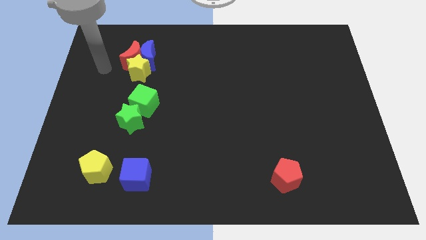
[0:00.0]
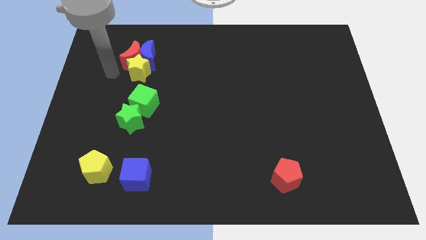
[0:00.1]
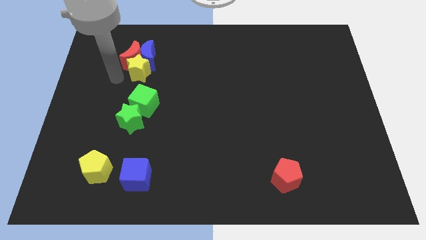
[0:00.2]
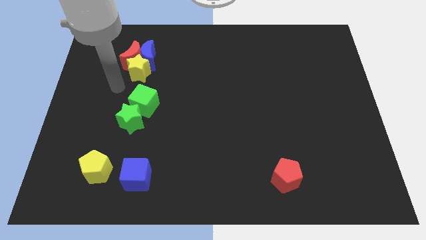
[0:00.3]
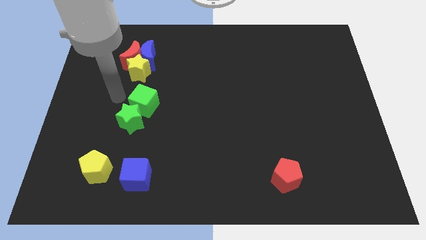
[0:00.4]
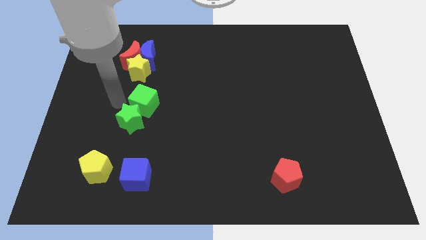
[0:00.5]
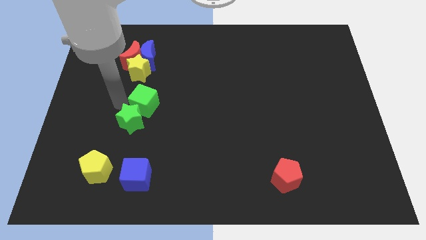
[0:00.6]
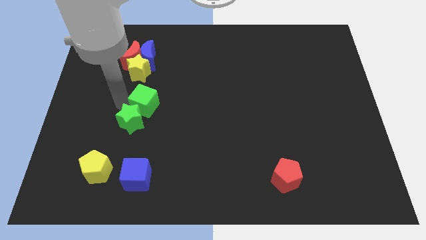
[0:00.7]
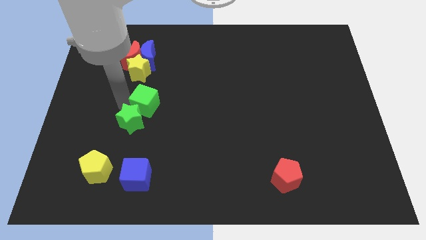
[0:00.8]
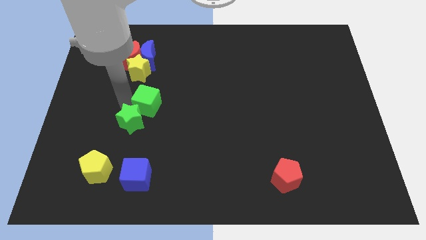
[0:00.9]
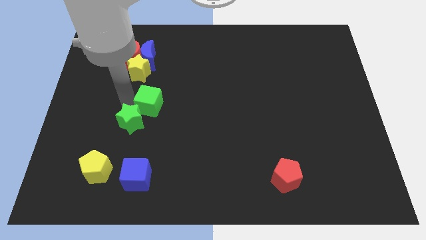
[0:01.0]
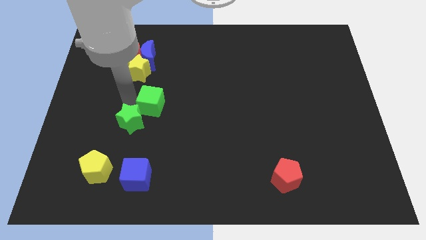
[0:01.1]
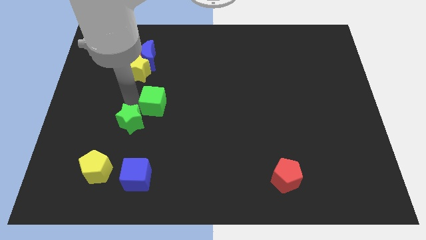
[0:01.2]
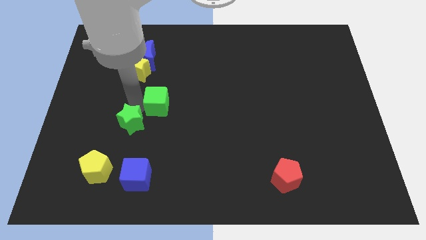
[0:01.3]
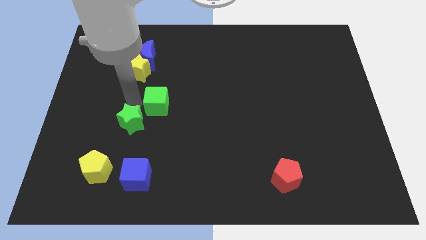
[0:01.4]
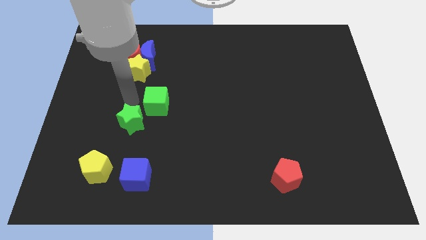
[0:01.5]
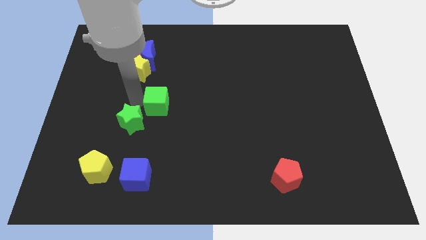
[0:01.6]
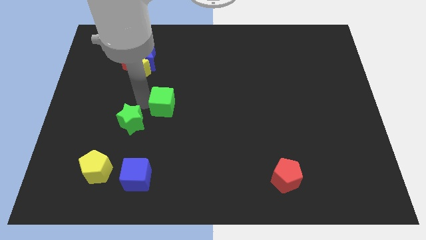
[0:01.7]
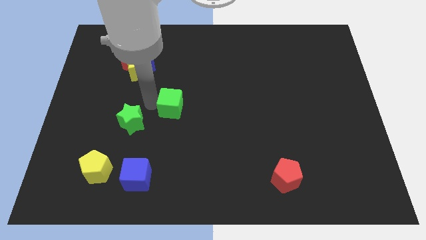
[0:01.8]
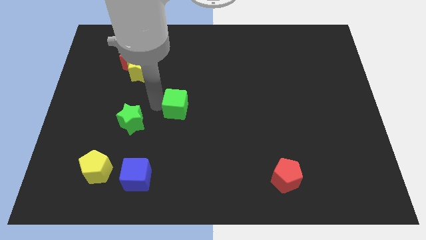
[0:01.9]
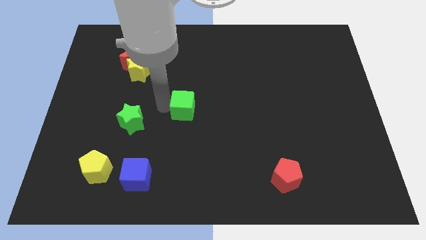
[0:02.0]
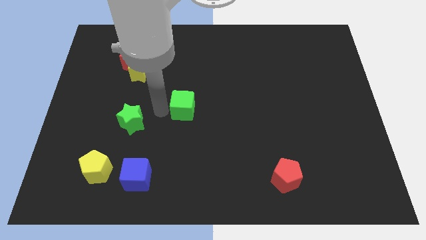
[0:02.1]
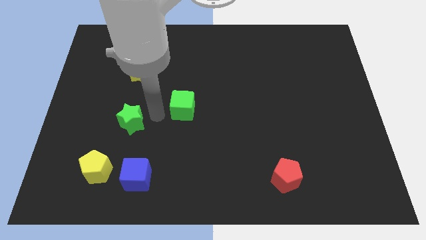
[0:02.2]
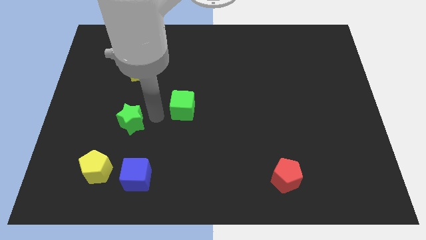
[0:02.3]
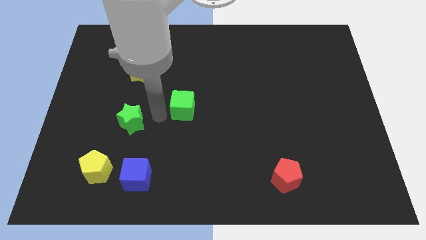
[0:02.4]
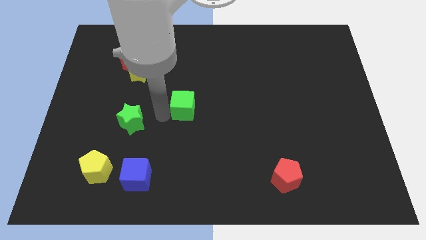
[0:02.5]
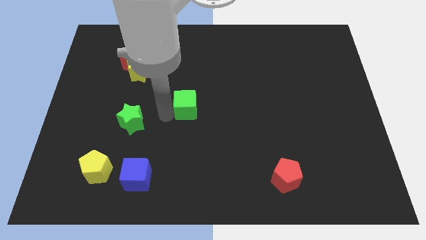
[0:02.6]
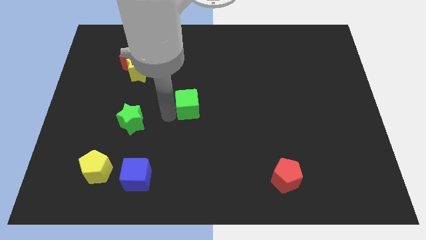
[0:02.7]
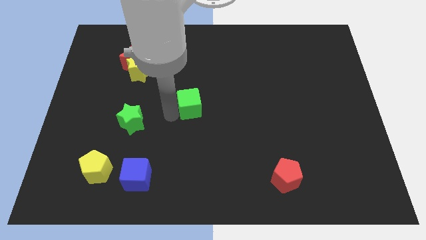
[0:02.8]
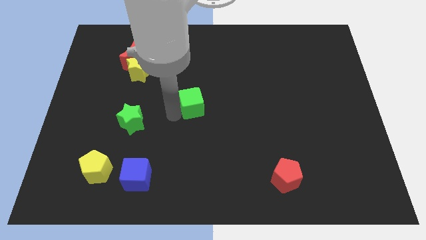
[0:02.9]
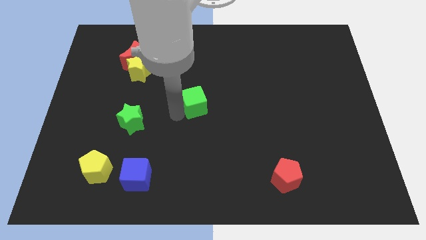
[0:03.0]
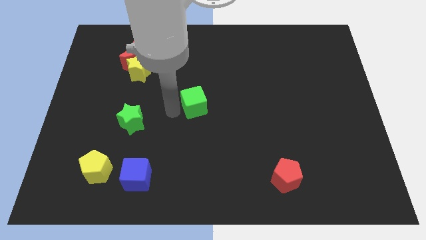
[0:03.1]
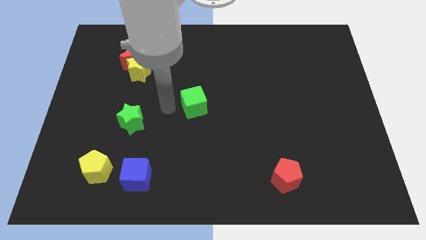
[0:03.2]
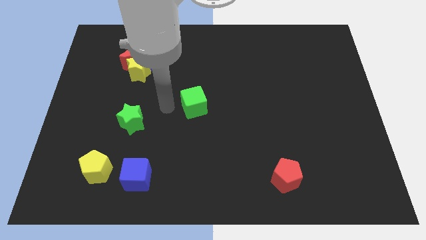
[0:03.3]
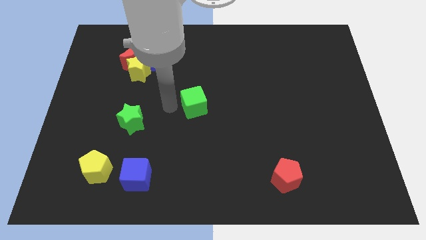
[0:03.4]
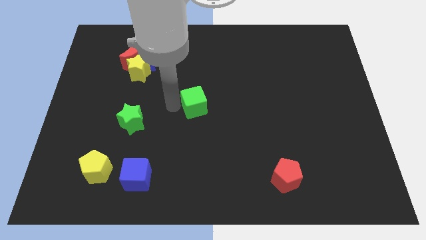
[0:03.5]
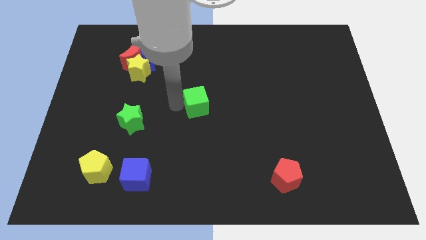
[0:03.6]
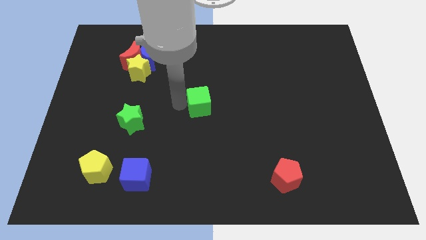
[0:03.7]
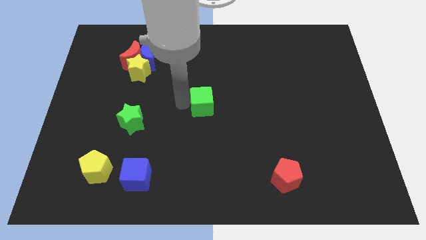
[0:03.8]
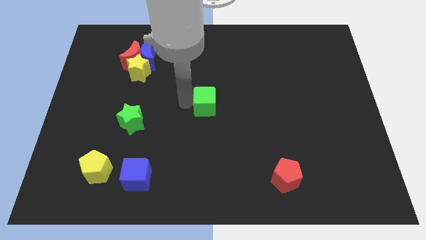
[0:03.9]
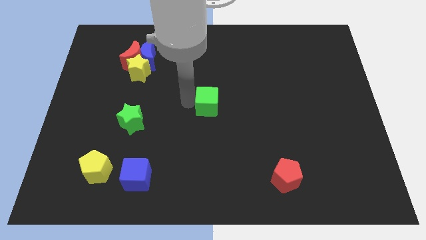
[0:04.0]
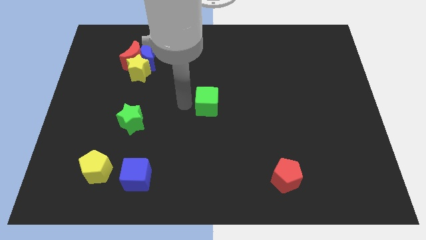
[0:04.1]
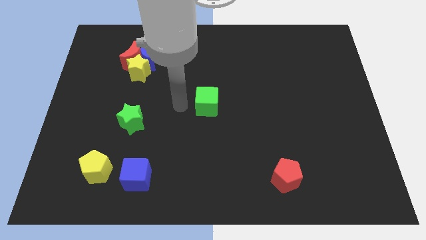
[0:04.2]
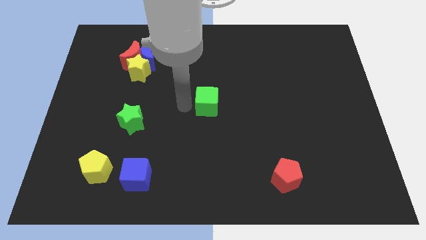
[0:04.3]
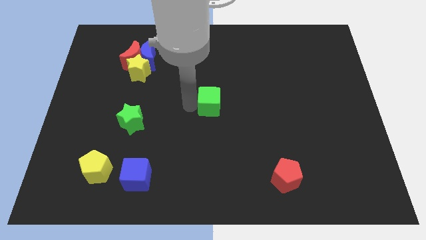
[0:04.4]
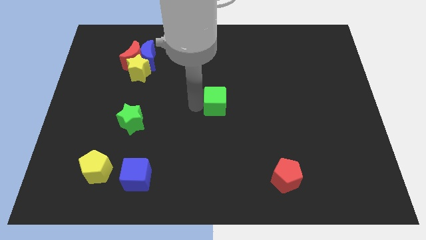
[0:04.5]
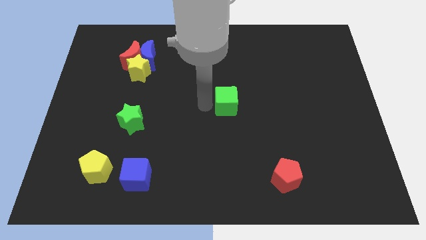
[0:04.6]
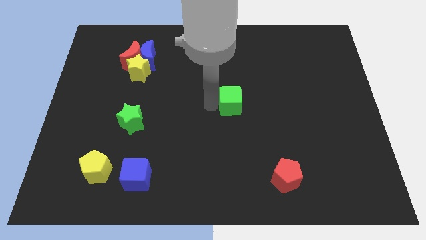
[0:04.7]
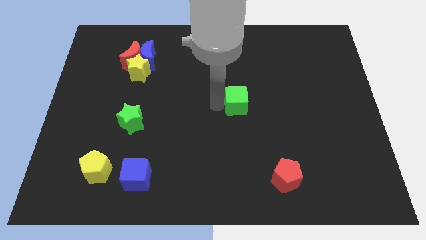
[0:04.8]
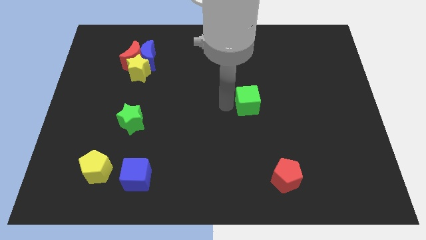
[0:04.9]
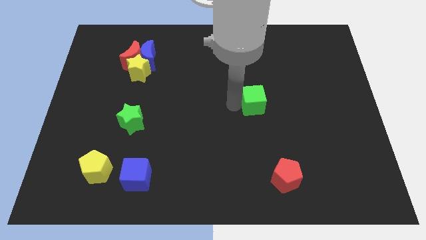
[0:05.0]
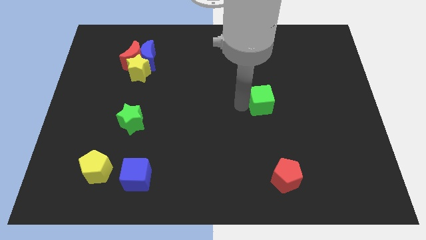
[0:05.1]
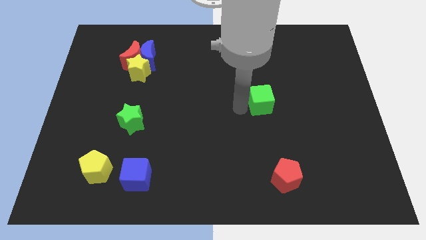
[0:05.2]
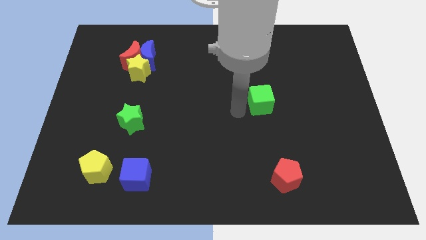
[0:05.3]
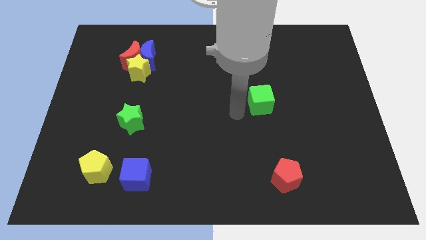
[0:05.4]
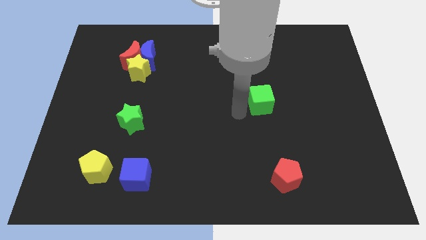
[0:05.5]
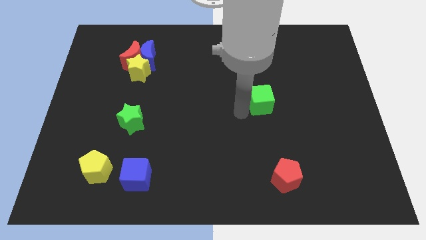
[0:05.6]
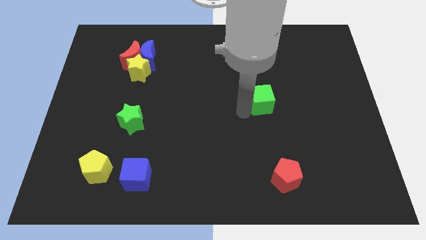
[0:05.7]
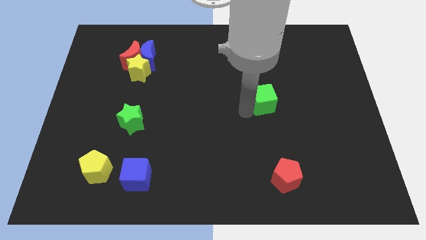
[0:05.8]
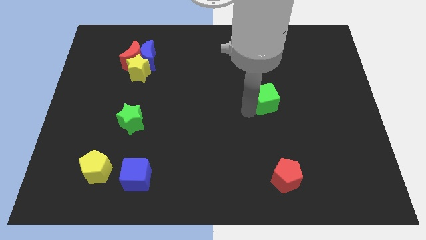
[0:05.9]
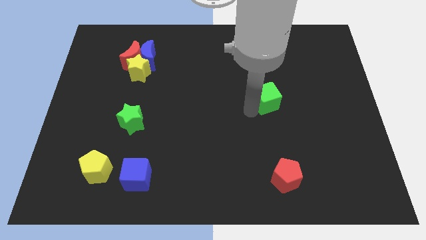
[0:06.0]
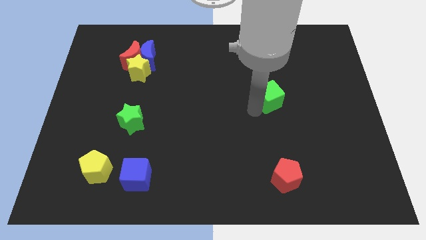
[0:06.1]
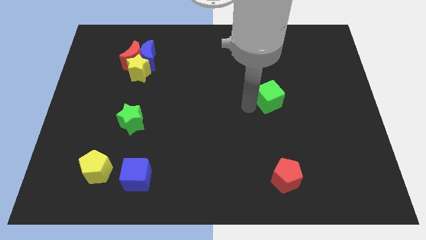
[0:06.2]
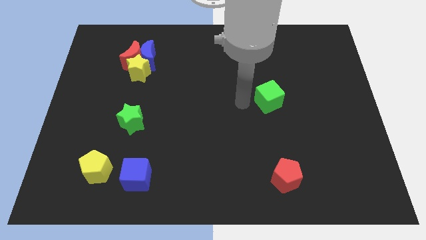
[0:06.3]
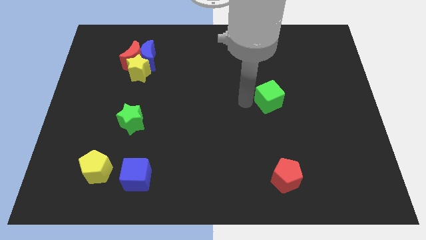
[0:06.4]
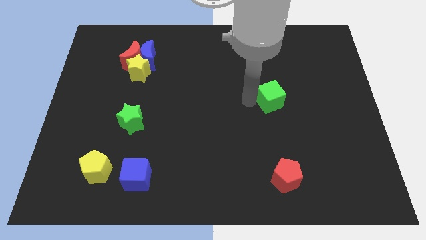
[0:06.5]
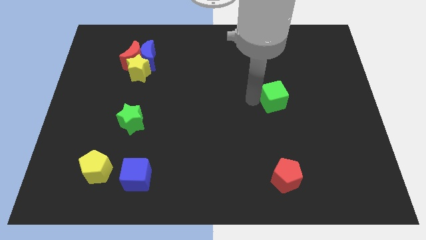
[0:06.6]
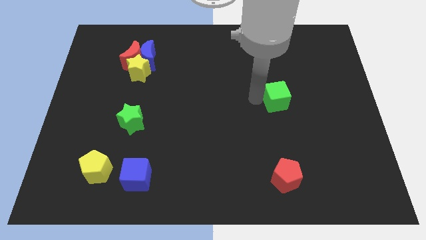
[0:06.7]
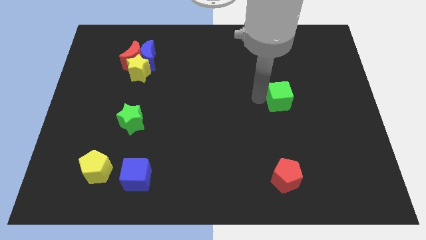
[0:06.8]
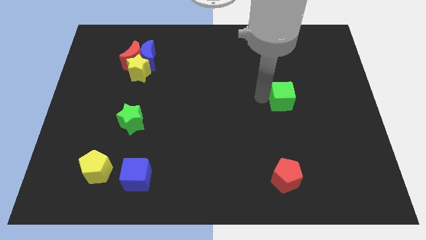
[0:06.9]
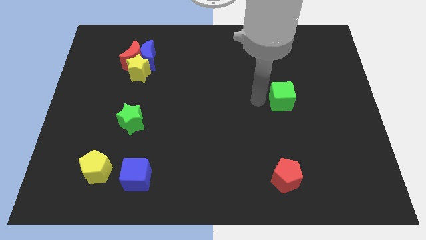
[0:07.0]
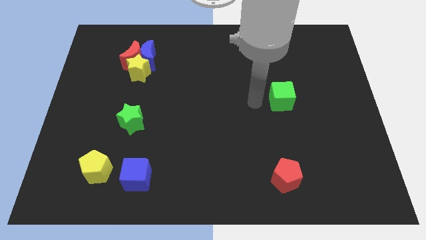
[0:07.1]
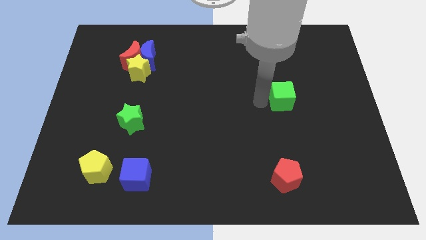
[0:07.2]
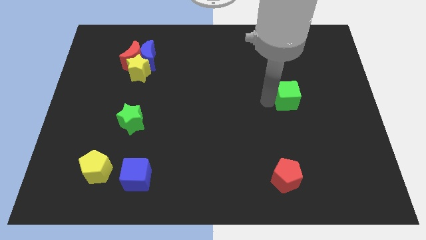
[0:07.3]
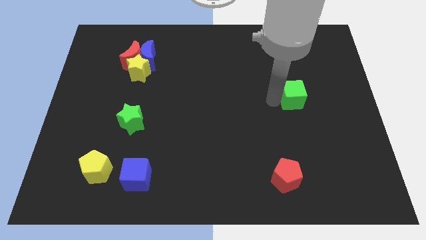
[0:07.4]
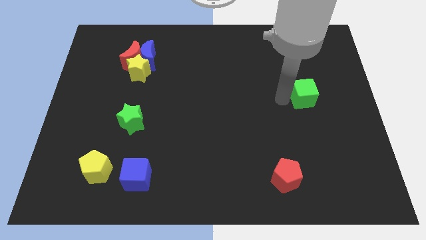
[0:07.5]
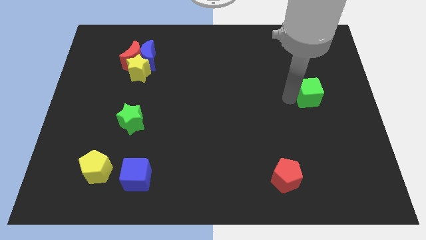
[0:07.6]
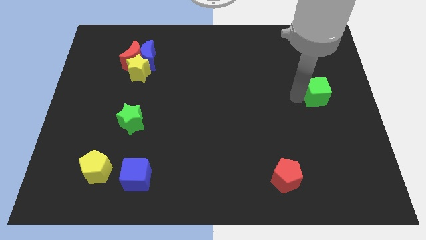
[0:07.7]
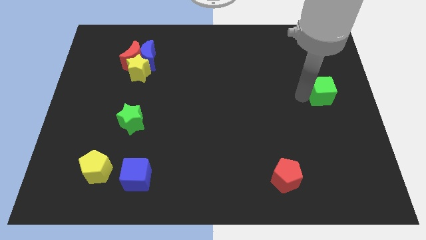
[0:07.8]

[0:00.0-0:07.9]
put the green cube to the right side
